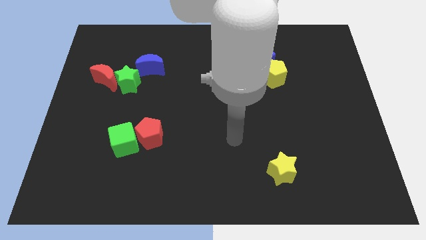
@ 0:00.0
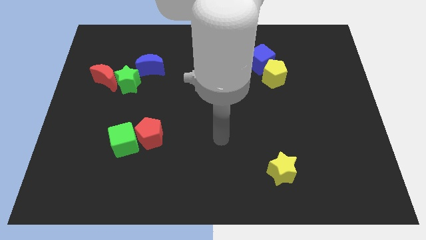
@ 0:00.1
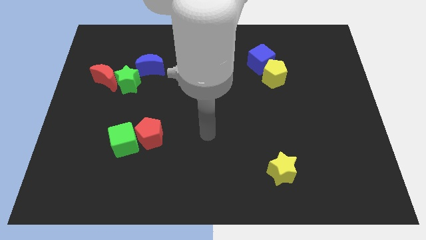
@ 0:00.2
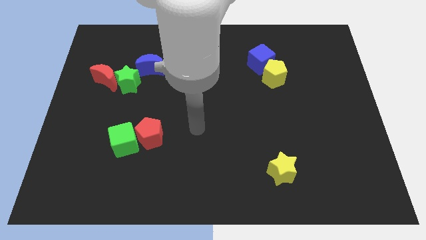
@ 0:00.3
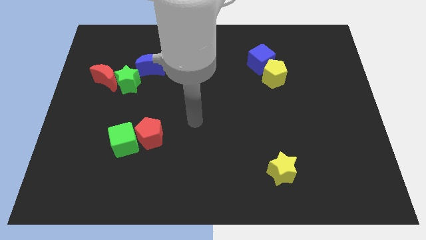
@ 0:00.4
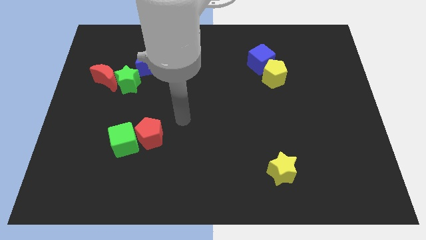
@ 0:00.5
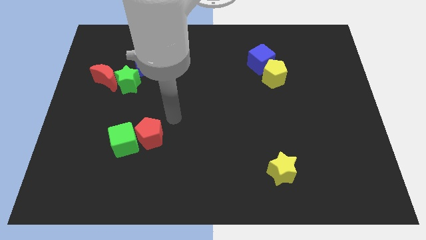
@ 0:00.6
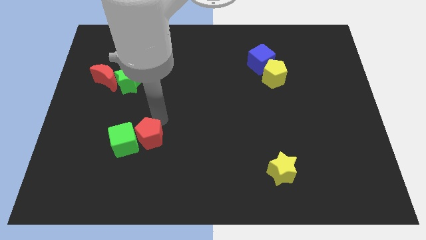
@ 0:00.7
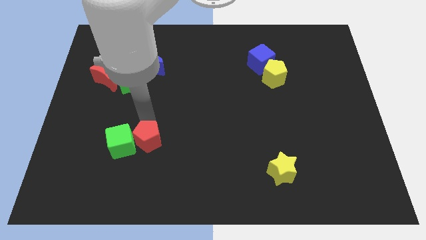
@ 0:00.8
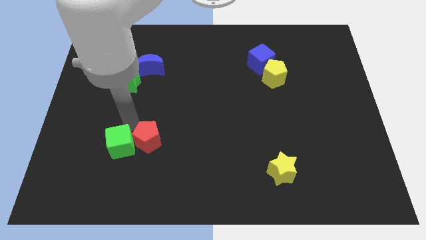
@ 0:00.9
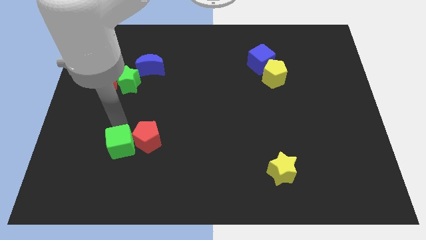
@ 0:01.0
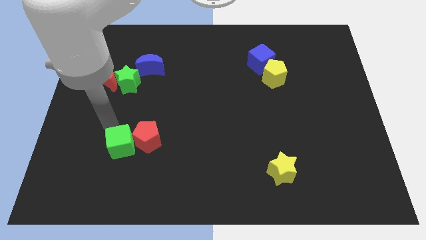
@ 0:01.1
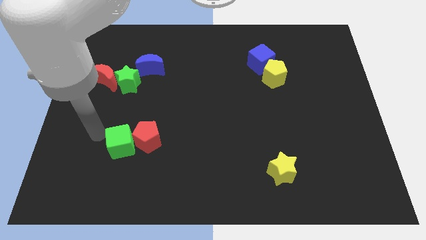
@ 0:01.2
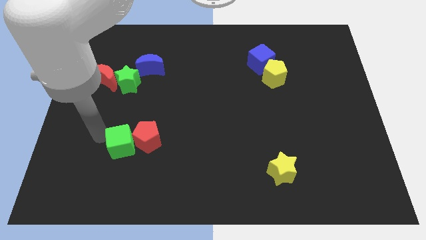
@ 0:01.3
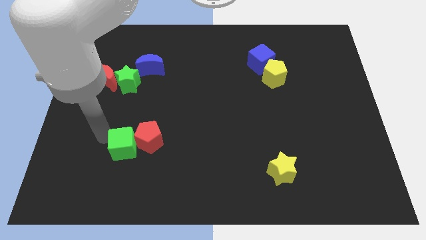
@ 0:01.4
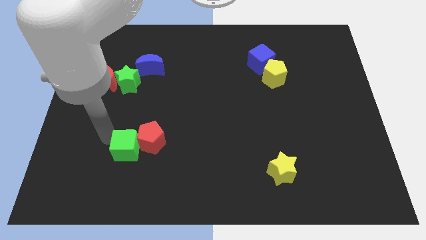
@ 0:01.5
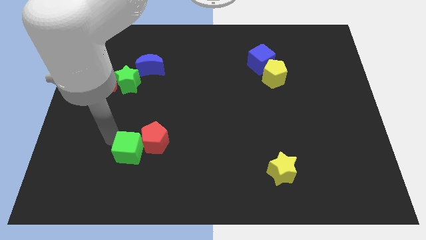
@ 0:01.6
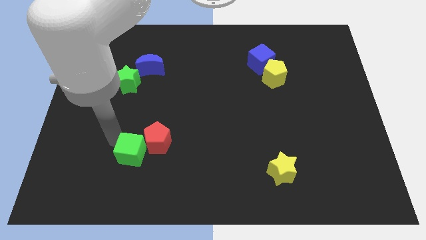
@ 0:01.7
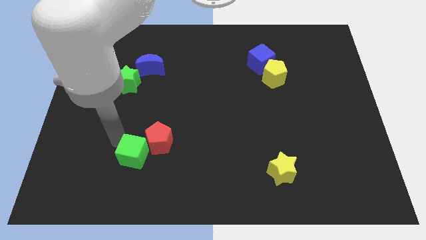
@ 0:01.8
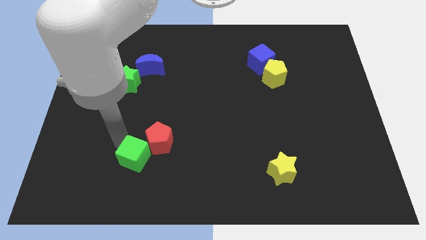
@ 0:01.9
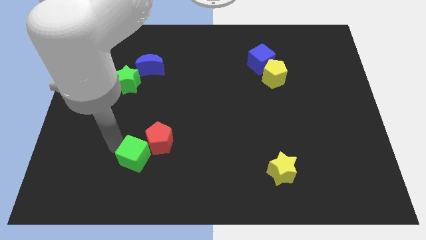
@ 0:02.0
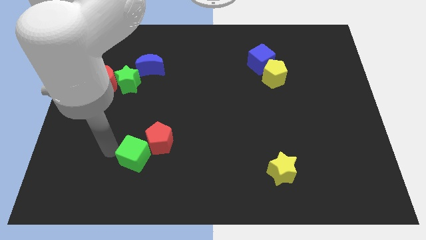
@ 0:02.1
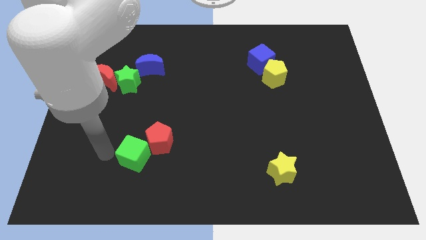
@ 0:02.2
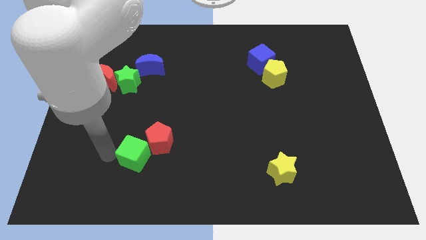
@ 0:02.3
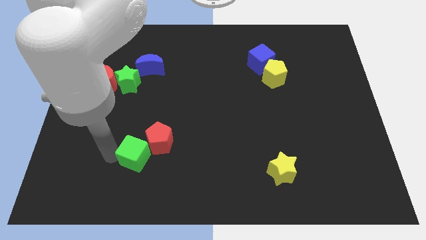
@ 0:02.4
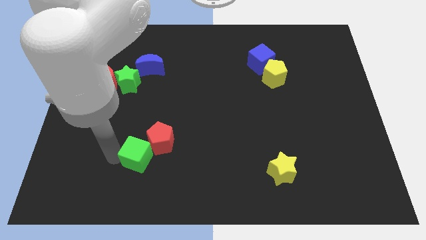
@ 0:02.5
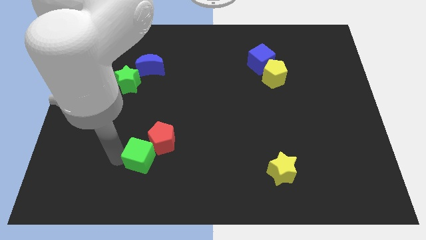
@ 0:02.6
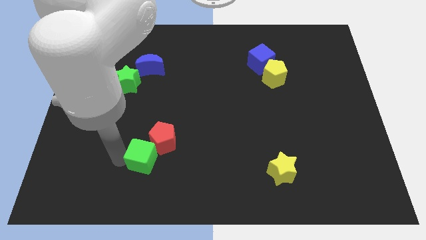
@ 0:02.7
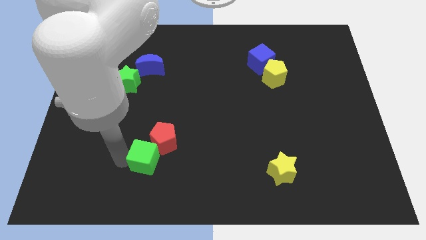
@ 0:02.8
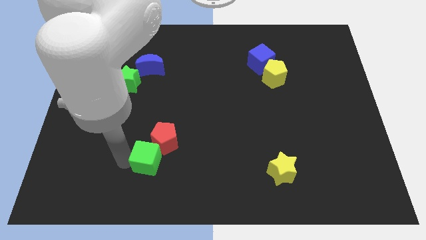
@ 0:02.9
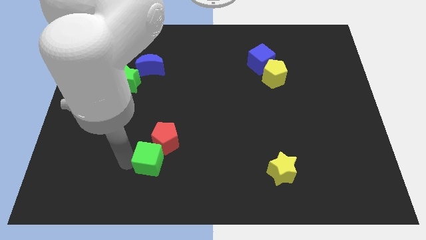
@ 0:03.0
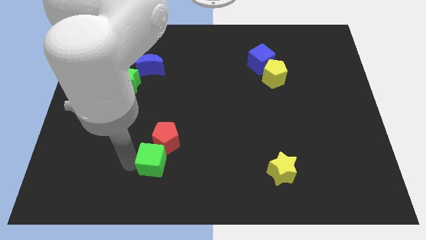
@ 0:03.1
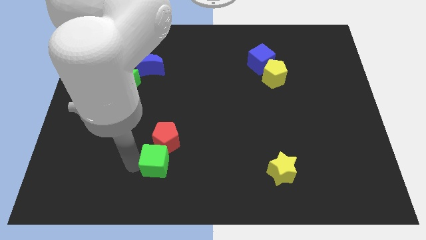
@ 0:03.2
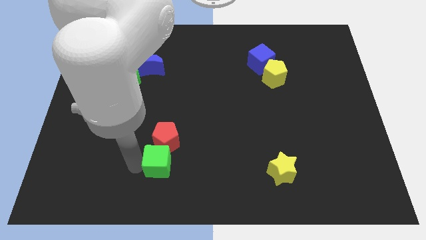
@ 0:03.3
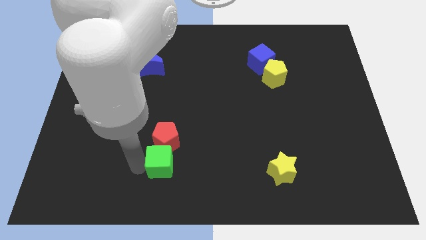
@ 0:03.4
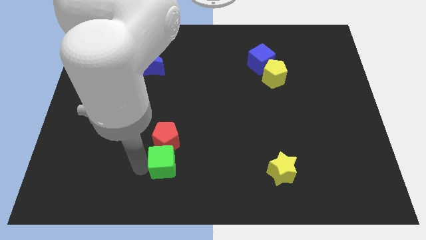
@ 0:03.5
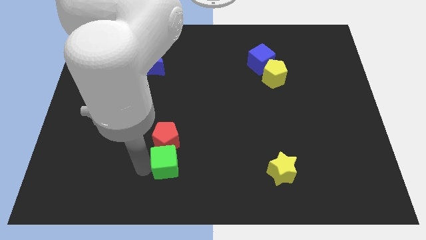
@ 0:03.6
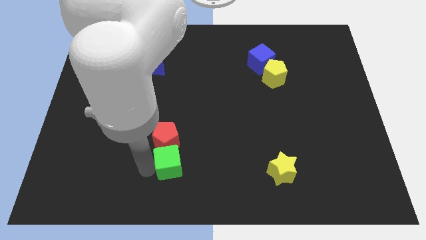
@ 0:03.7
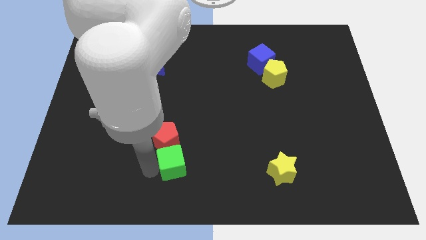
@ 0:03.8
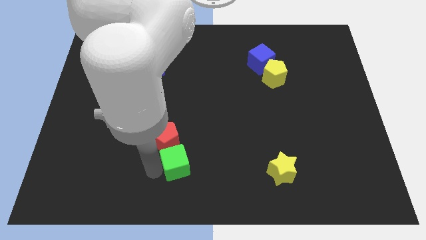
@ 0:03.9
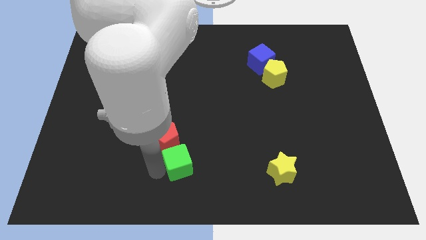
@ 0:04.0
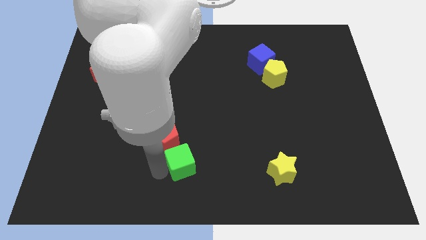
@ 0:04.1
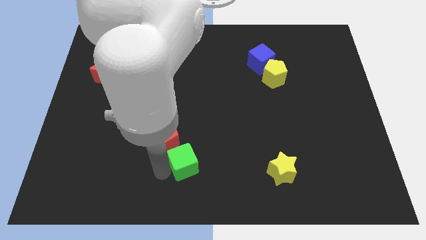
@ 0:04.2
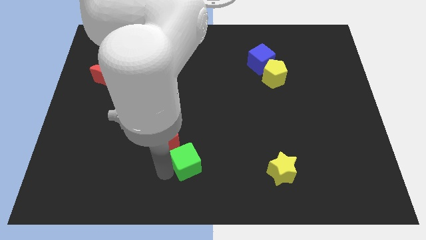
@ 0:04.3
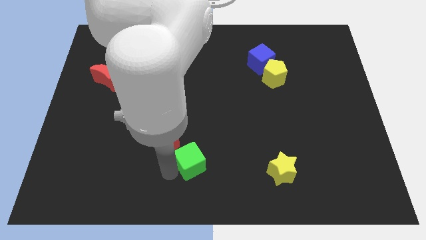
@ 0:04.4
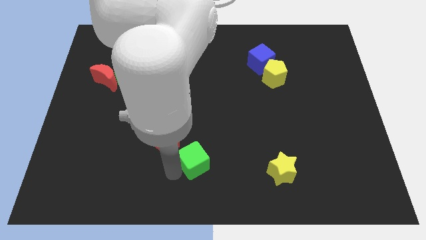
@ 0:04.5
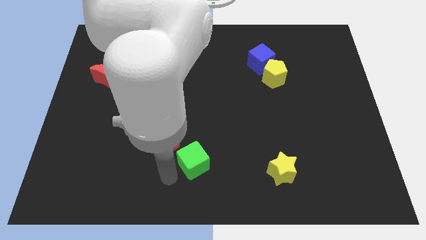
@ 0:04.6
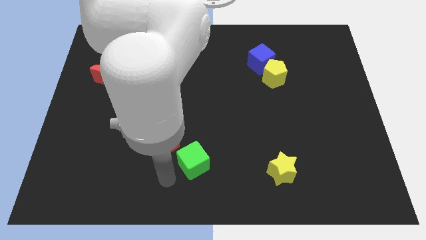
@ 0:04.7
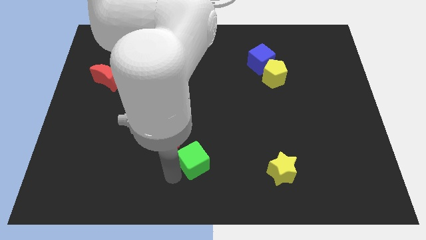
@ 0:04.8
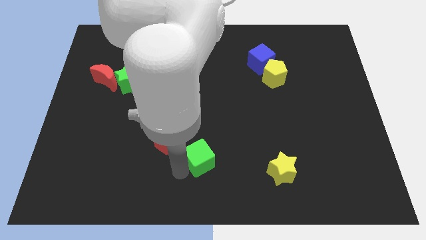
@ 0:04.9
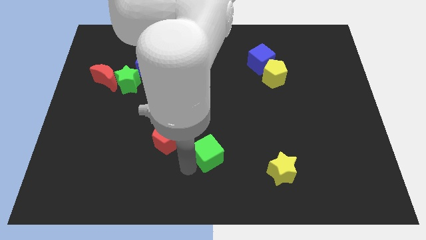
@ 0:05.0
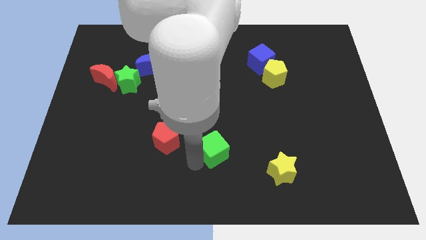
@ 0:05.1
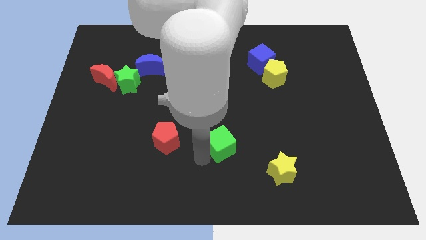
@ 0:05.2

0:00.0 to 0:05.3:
move the green cube right

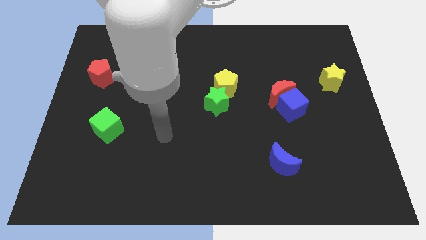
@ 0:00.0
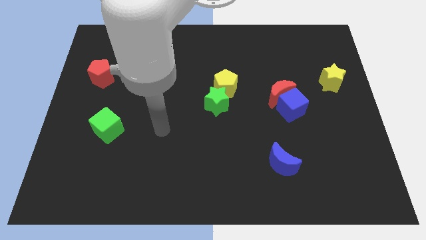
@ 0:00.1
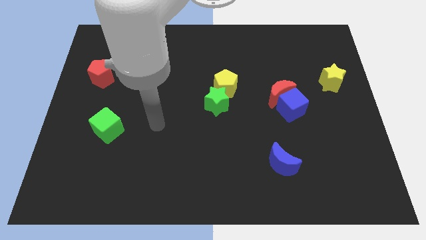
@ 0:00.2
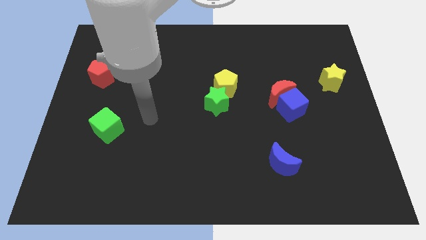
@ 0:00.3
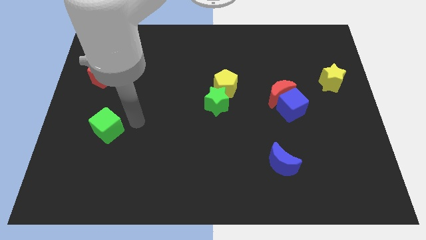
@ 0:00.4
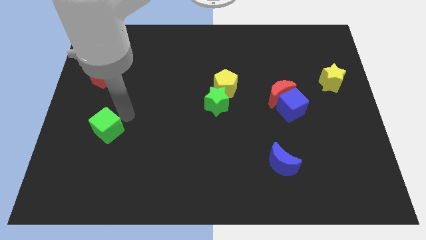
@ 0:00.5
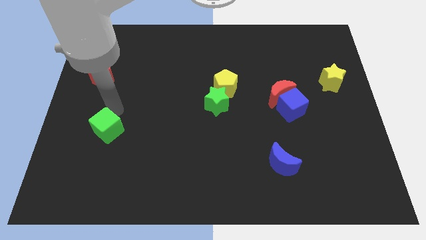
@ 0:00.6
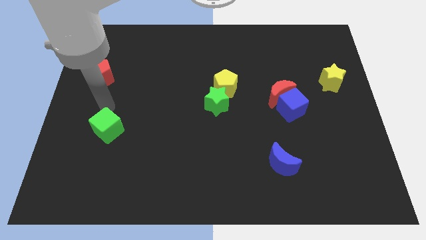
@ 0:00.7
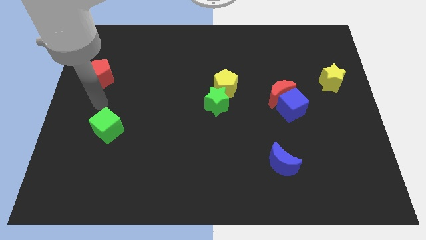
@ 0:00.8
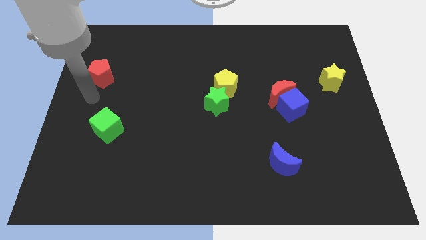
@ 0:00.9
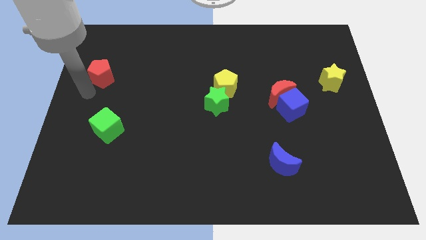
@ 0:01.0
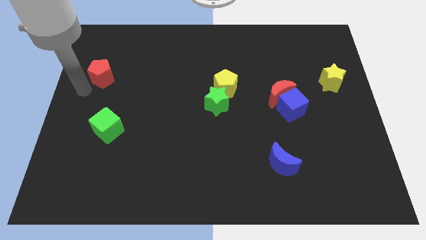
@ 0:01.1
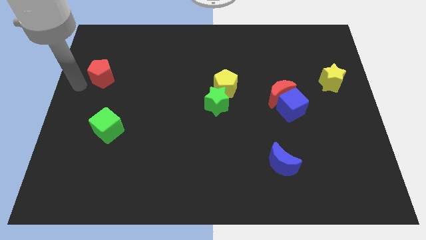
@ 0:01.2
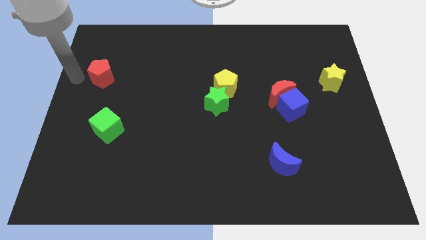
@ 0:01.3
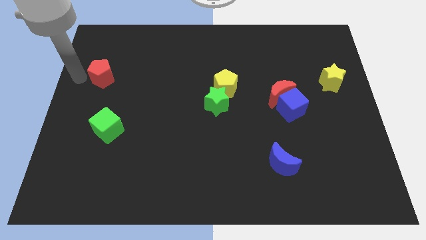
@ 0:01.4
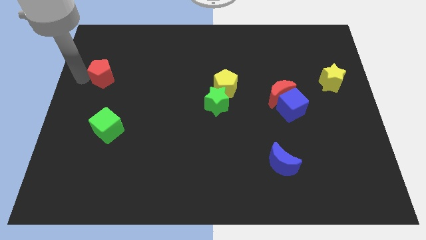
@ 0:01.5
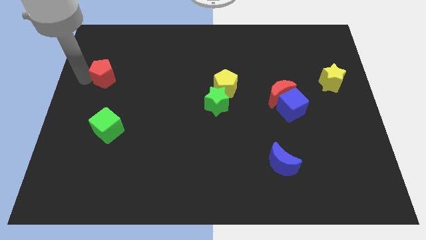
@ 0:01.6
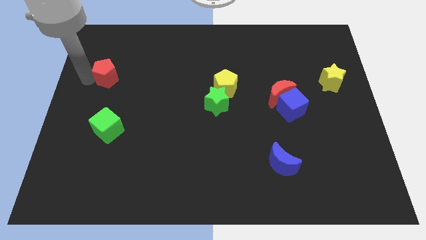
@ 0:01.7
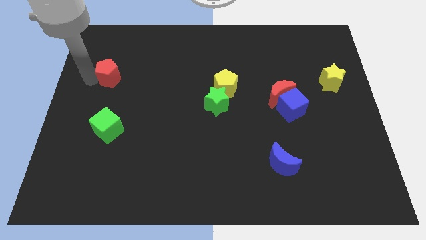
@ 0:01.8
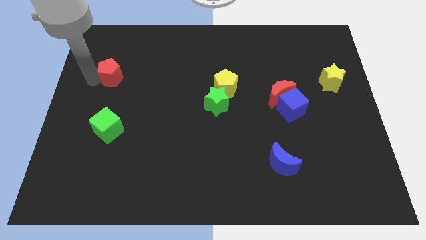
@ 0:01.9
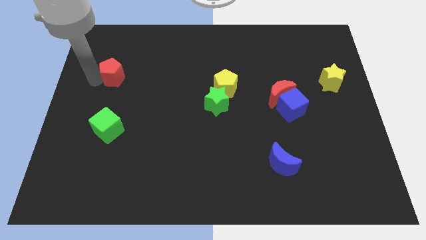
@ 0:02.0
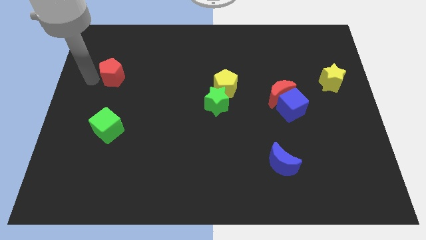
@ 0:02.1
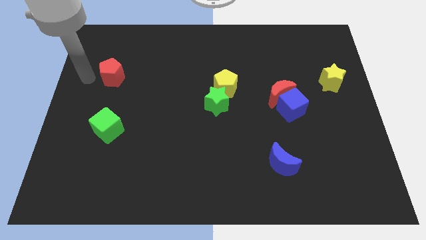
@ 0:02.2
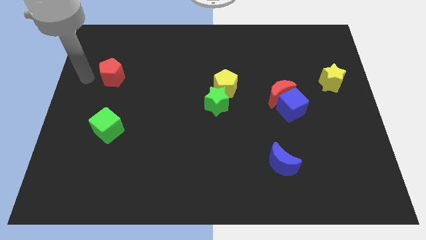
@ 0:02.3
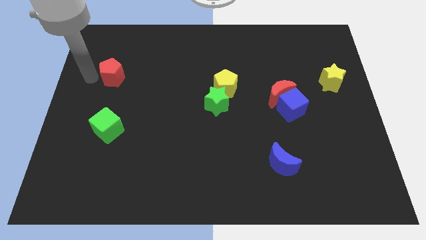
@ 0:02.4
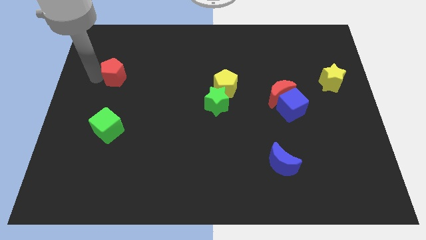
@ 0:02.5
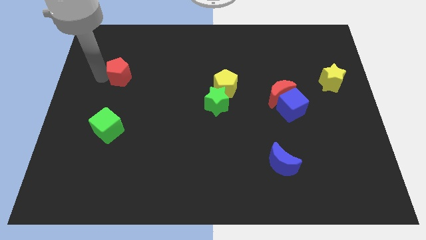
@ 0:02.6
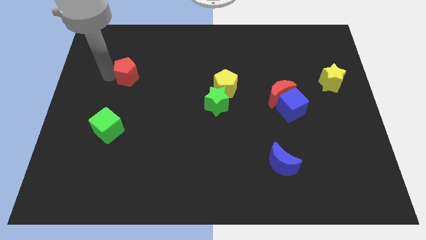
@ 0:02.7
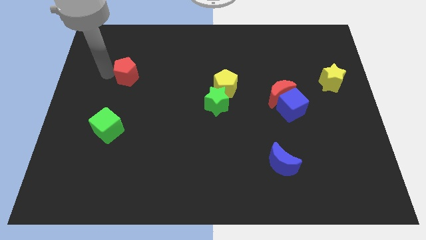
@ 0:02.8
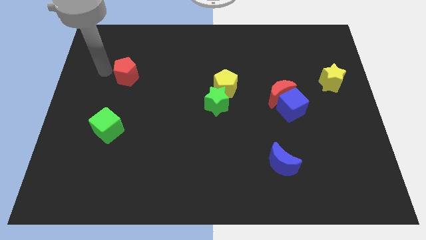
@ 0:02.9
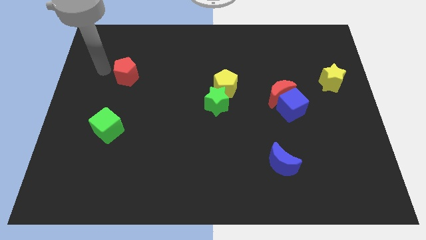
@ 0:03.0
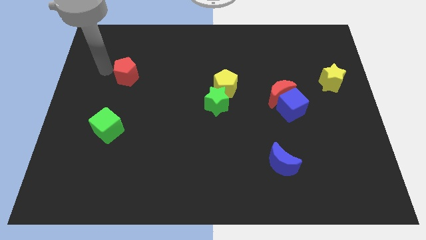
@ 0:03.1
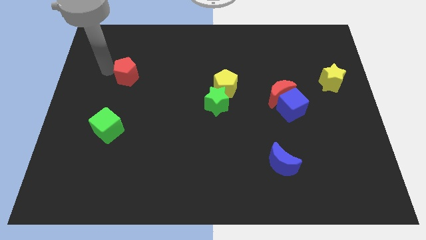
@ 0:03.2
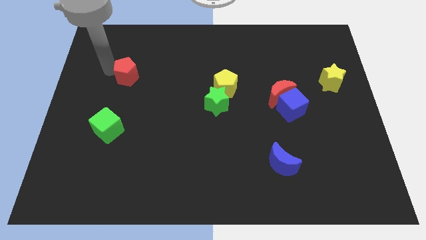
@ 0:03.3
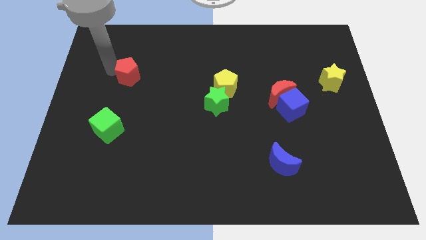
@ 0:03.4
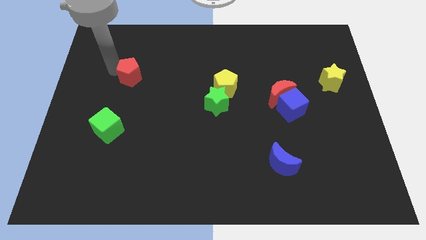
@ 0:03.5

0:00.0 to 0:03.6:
slightly slide the red pentagon right
